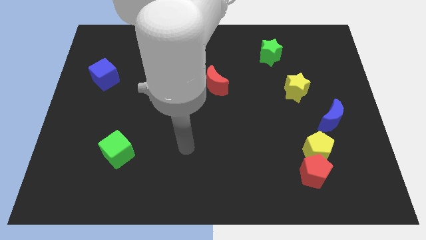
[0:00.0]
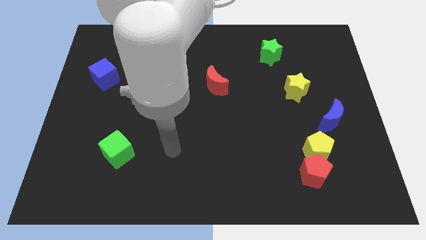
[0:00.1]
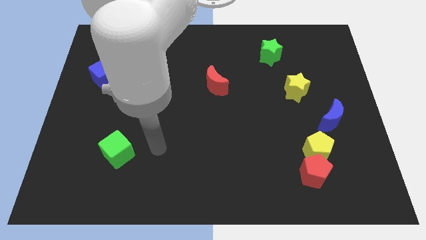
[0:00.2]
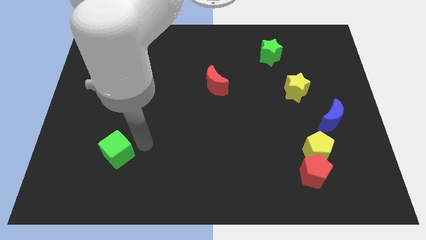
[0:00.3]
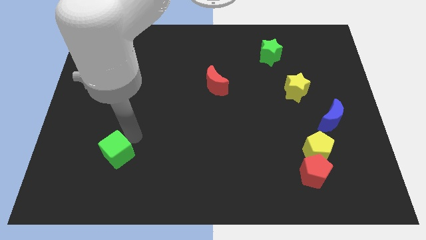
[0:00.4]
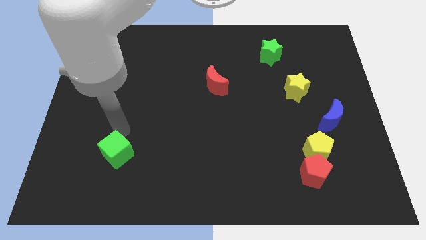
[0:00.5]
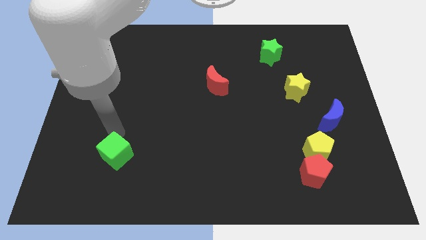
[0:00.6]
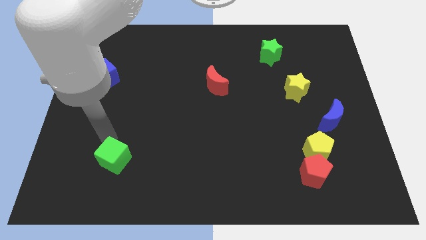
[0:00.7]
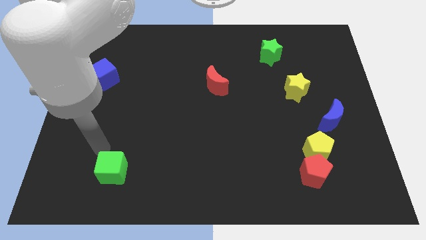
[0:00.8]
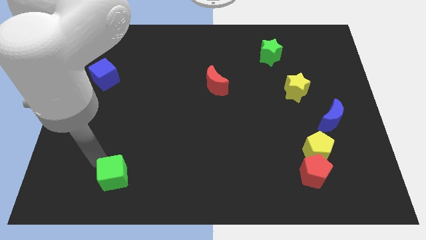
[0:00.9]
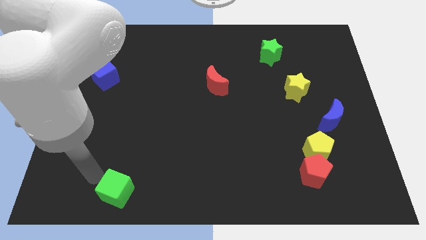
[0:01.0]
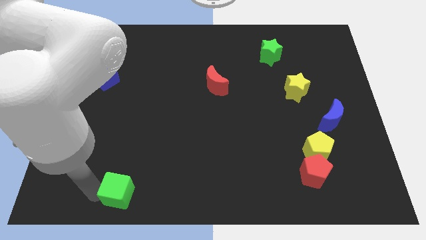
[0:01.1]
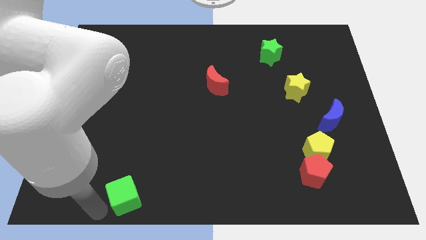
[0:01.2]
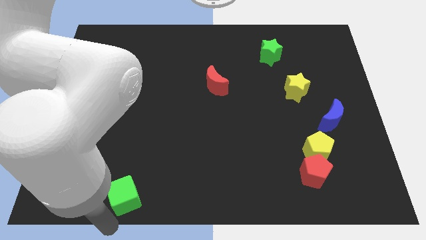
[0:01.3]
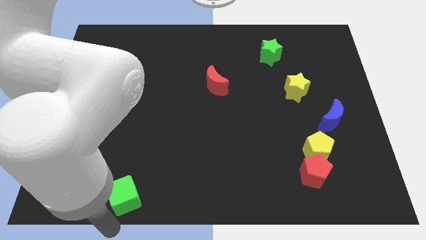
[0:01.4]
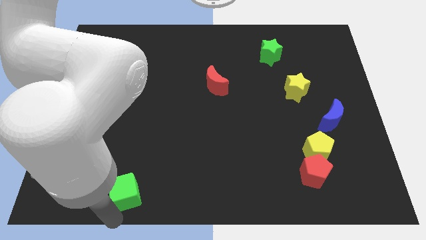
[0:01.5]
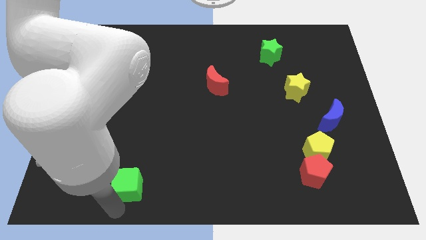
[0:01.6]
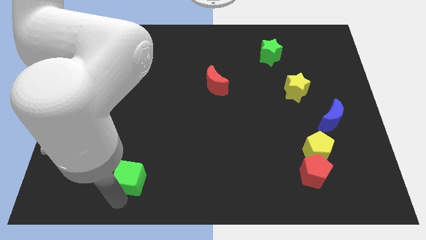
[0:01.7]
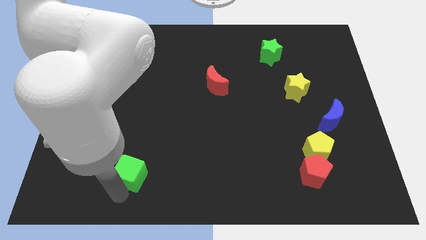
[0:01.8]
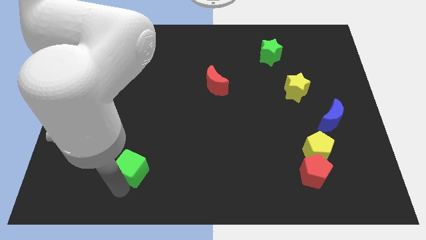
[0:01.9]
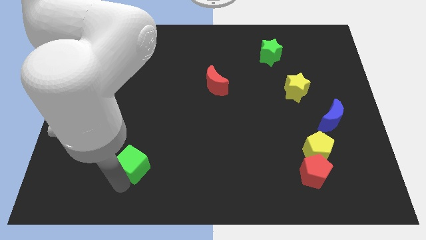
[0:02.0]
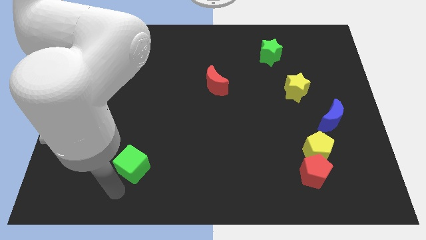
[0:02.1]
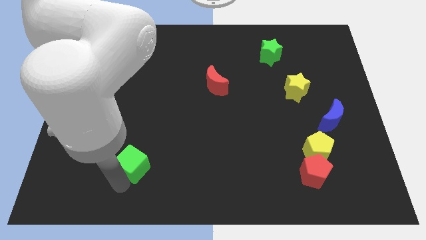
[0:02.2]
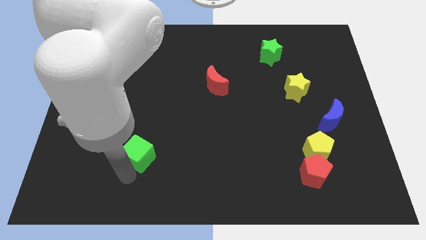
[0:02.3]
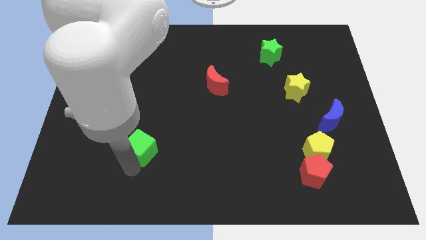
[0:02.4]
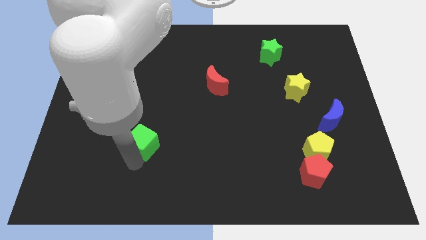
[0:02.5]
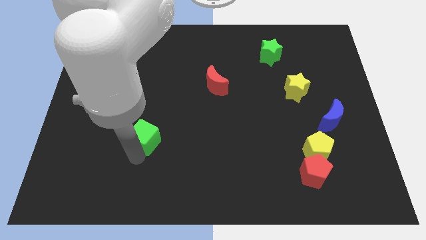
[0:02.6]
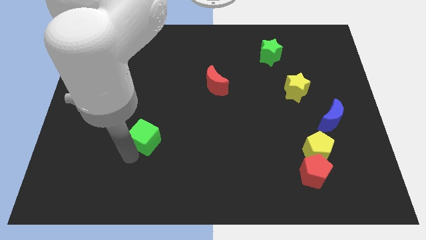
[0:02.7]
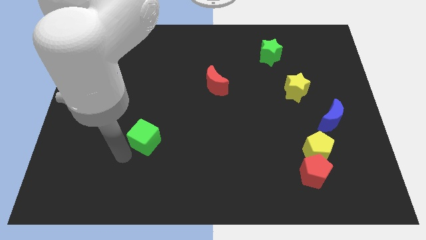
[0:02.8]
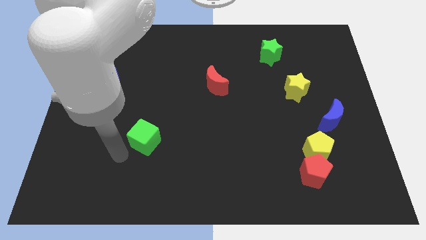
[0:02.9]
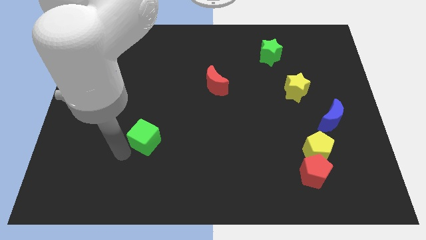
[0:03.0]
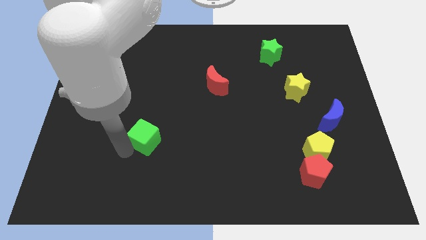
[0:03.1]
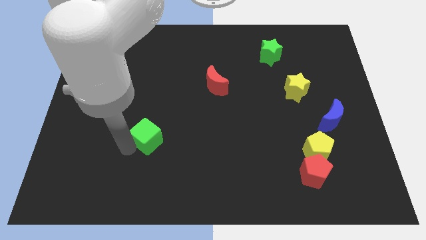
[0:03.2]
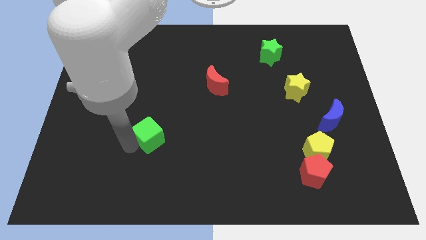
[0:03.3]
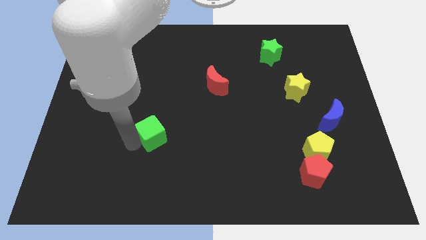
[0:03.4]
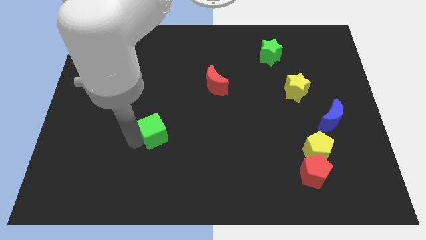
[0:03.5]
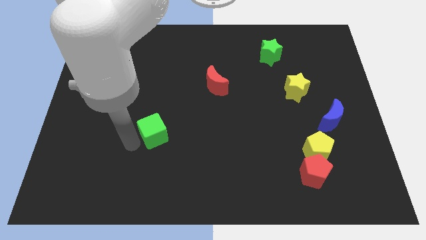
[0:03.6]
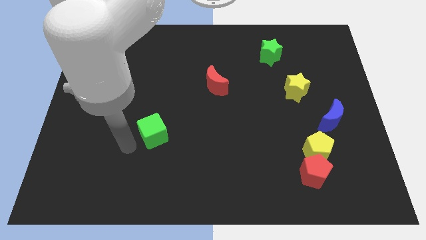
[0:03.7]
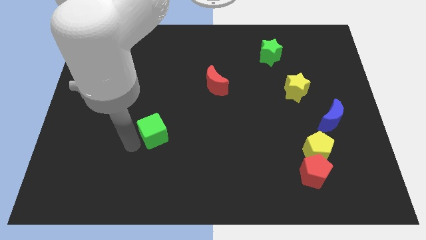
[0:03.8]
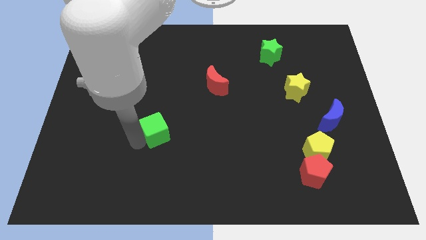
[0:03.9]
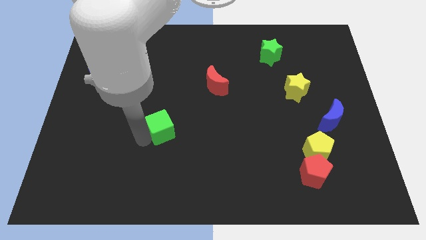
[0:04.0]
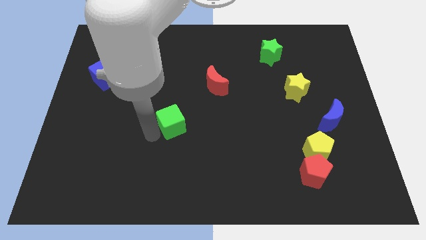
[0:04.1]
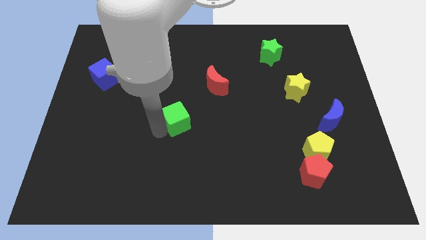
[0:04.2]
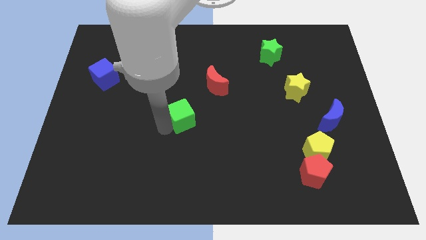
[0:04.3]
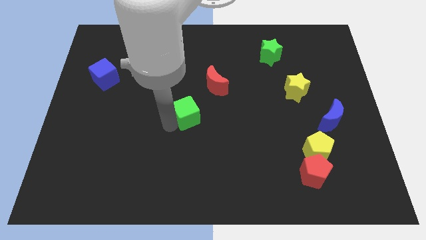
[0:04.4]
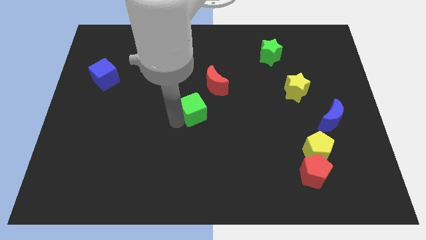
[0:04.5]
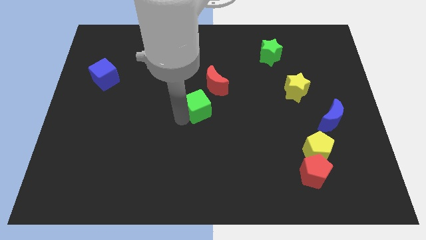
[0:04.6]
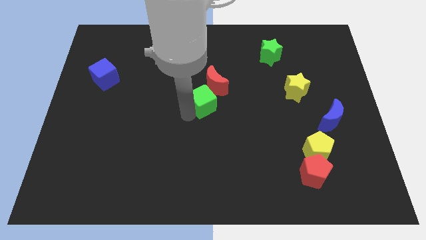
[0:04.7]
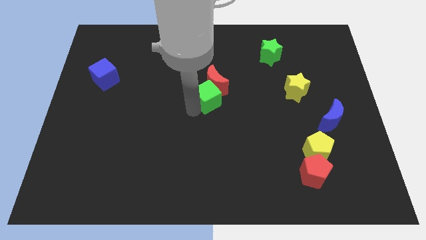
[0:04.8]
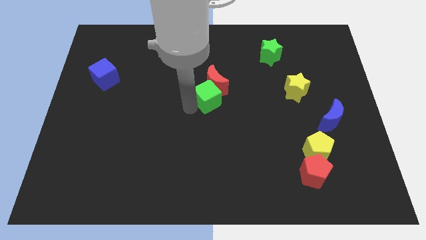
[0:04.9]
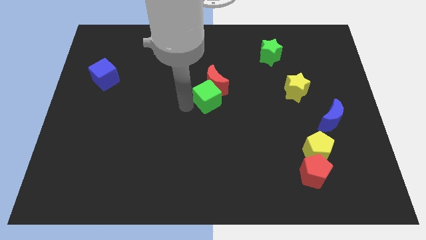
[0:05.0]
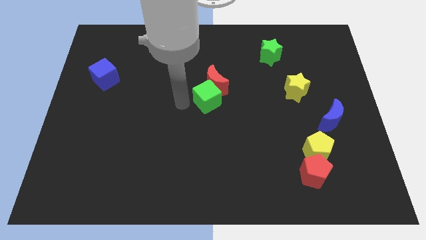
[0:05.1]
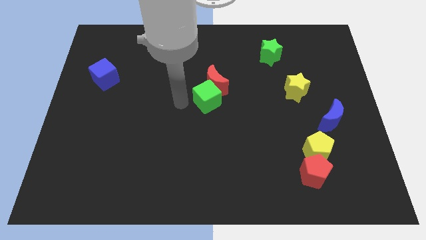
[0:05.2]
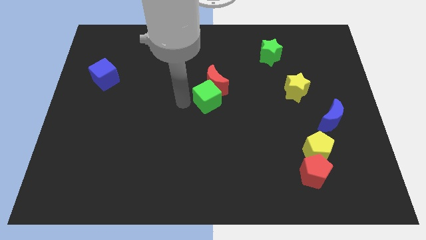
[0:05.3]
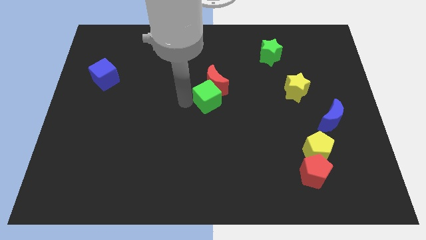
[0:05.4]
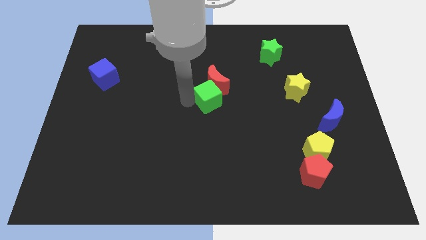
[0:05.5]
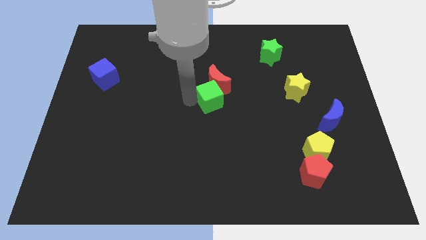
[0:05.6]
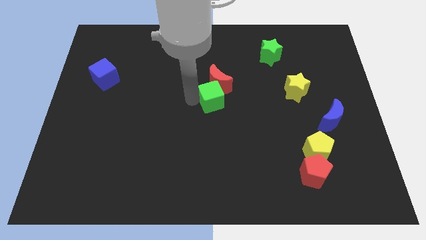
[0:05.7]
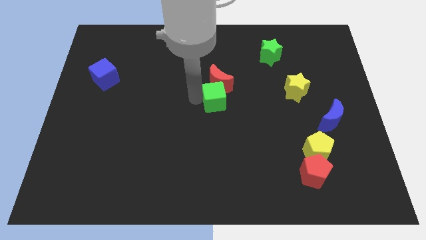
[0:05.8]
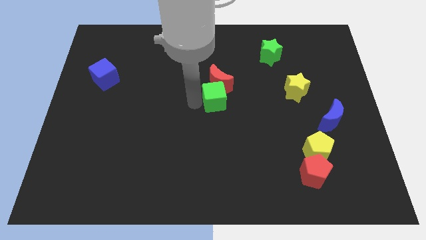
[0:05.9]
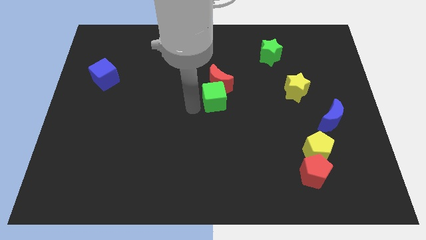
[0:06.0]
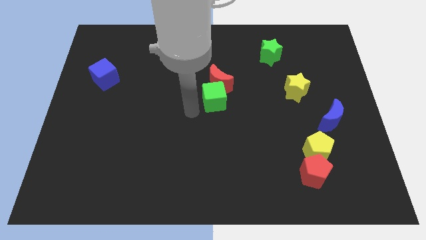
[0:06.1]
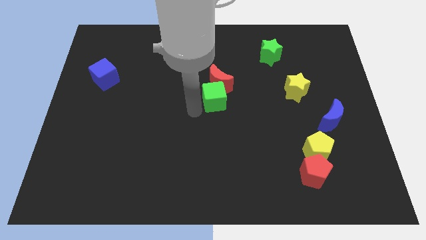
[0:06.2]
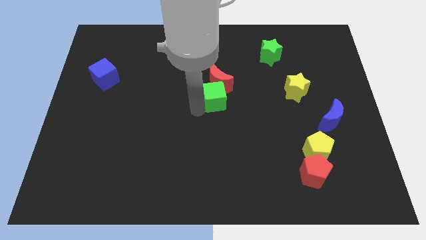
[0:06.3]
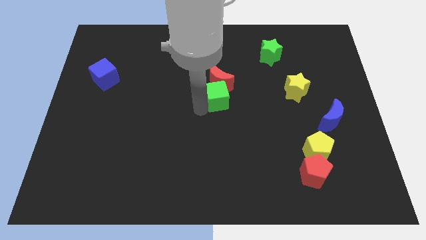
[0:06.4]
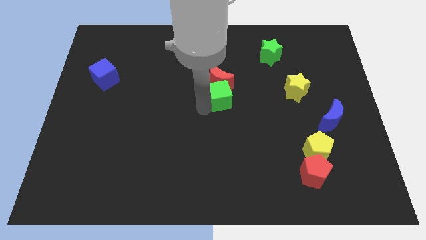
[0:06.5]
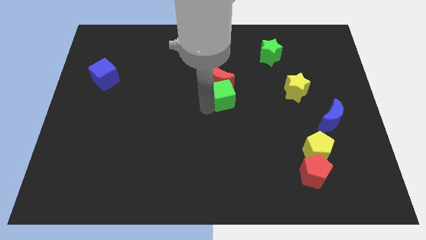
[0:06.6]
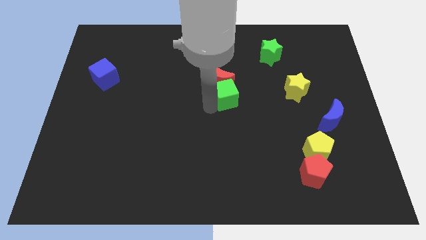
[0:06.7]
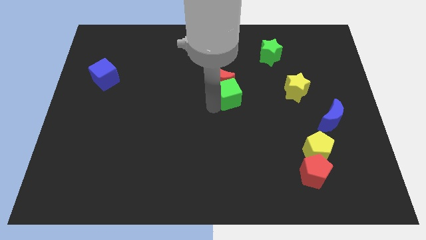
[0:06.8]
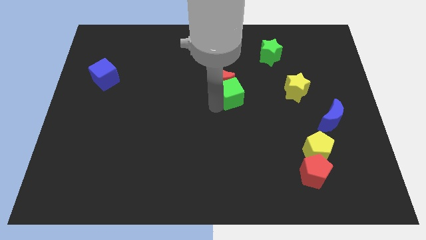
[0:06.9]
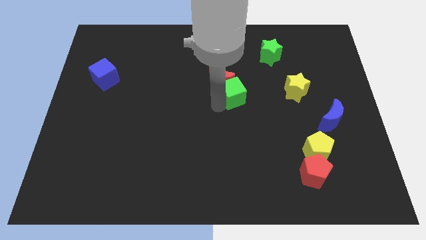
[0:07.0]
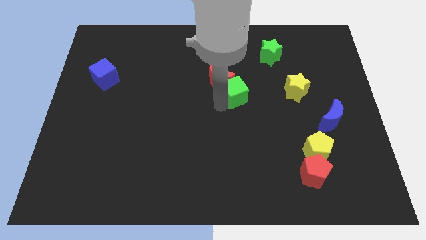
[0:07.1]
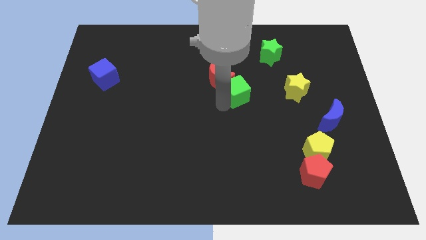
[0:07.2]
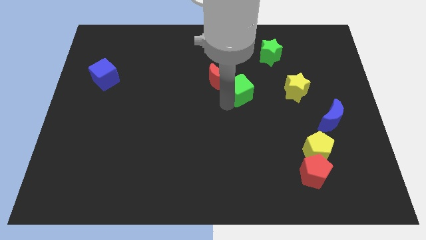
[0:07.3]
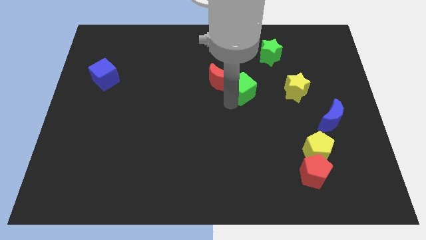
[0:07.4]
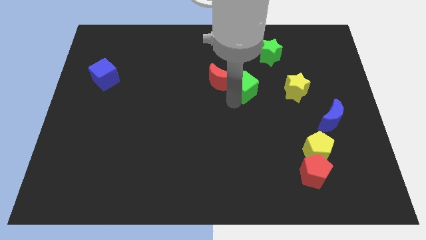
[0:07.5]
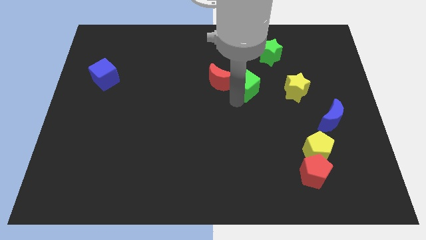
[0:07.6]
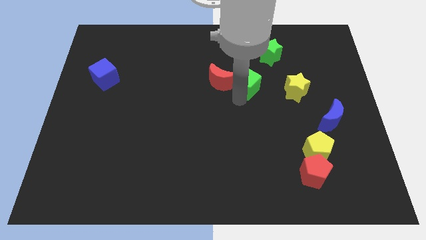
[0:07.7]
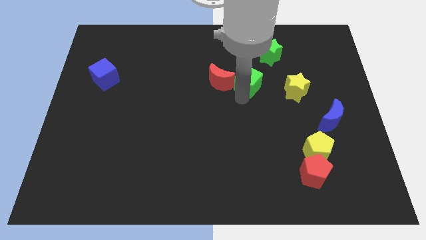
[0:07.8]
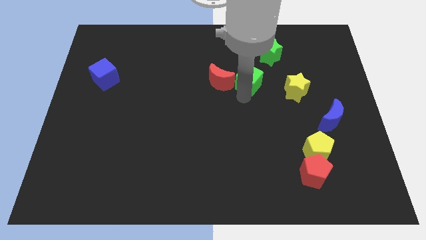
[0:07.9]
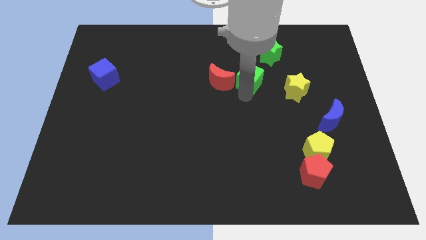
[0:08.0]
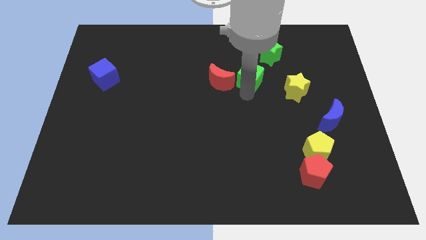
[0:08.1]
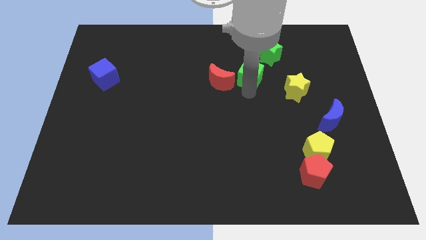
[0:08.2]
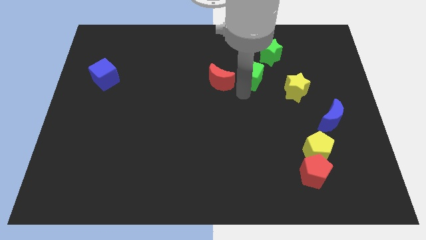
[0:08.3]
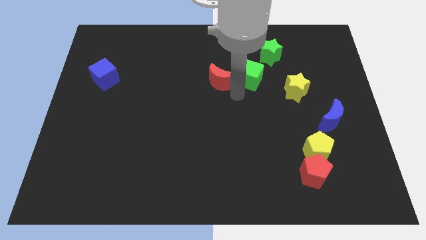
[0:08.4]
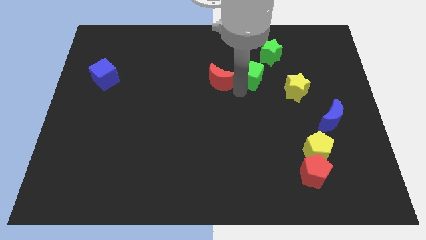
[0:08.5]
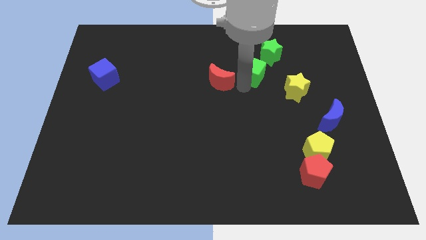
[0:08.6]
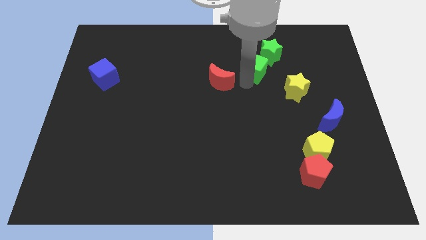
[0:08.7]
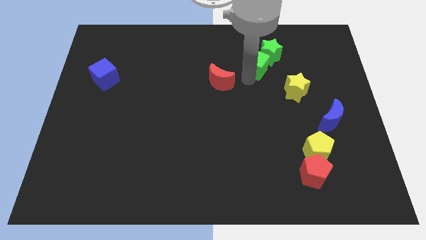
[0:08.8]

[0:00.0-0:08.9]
push the green cube next to the green star
